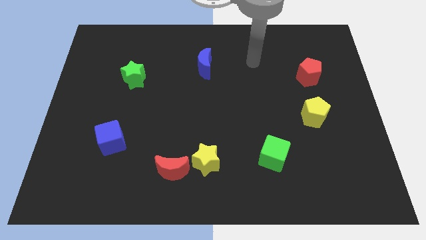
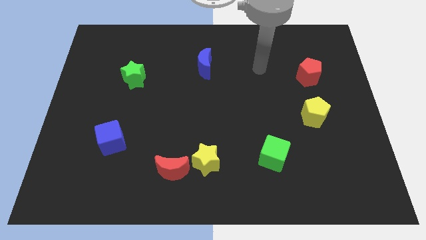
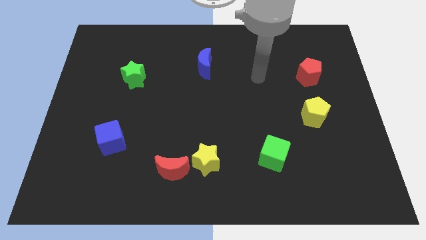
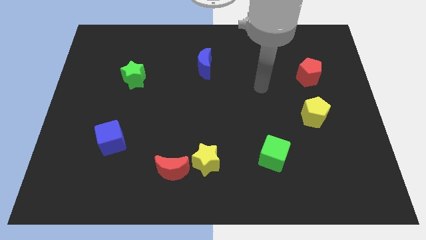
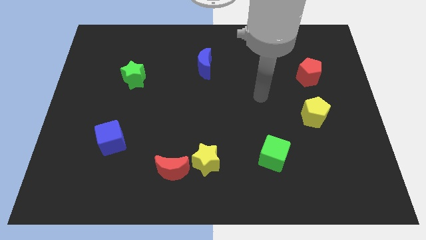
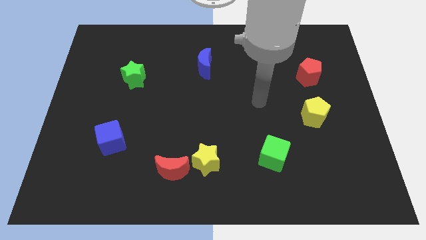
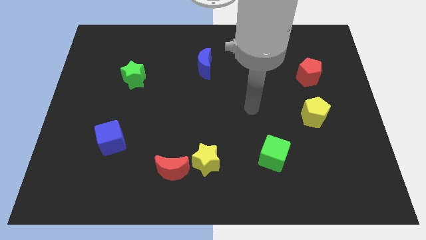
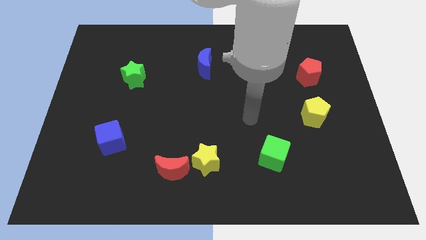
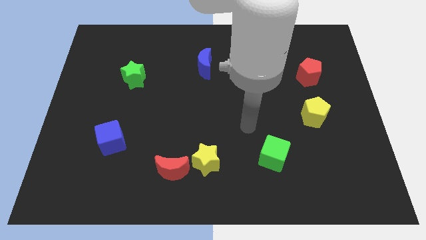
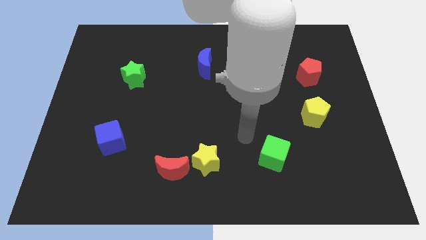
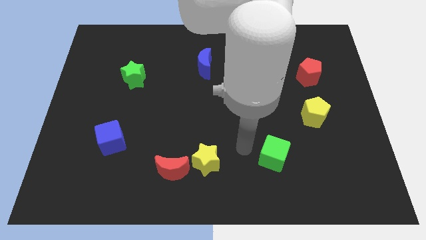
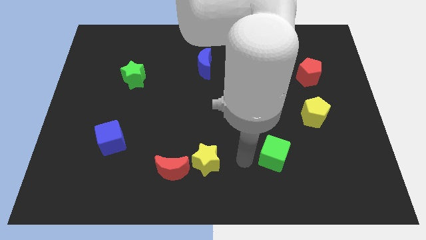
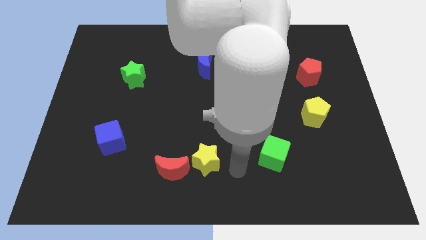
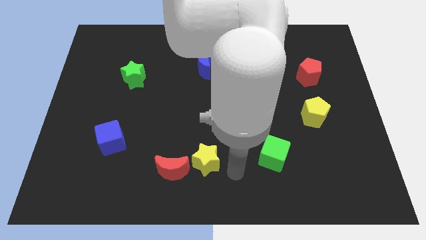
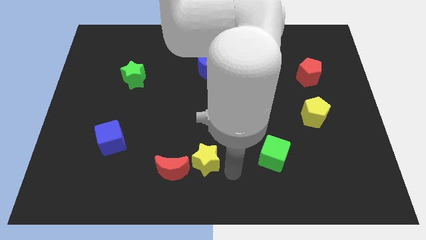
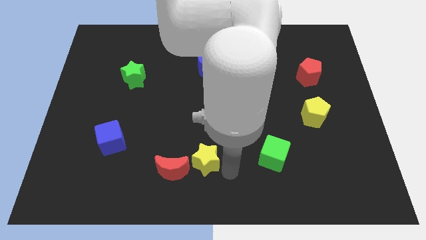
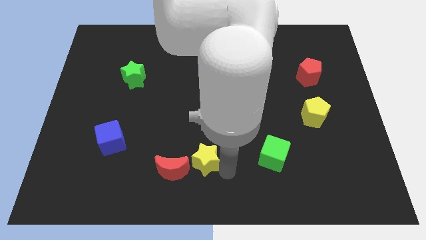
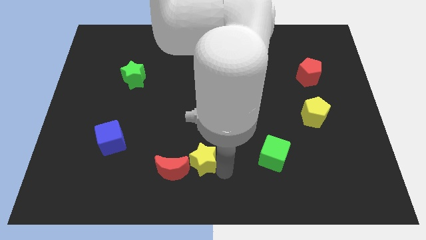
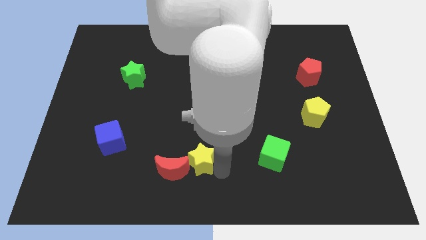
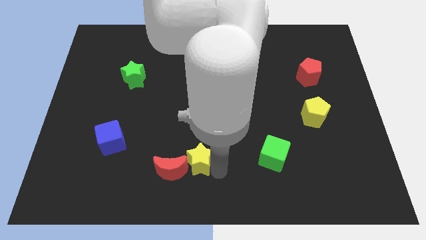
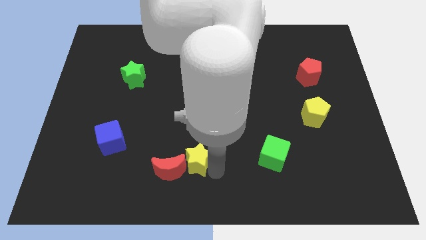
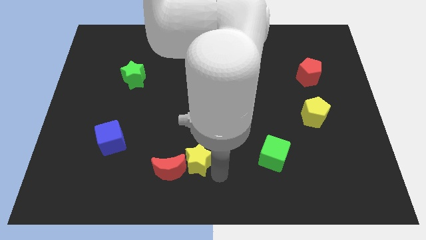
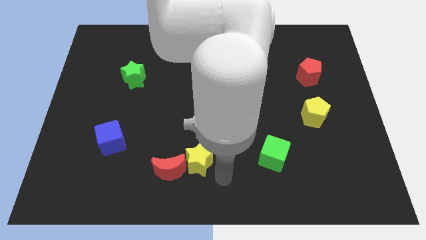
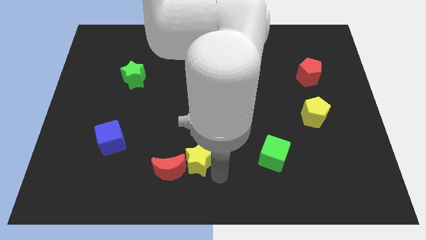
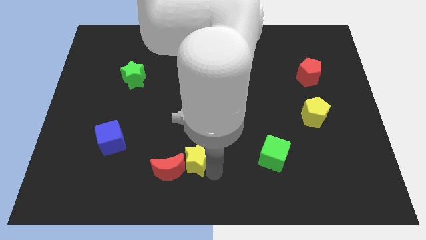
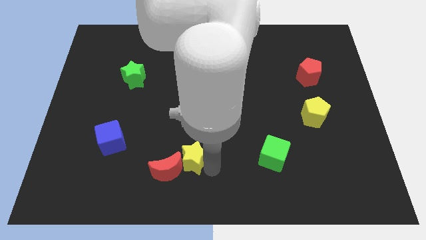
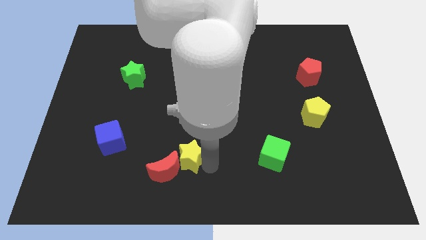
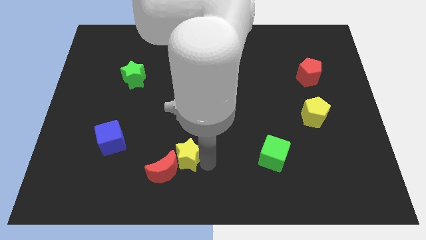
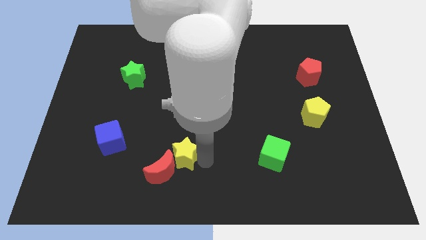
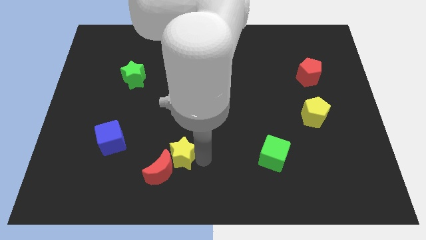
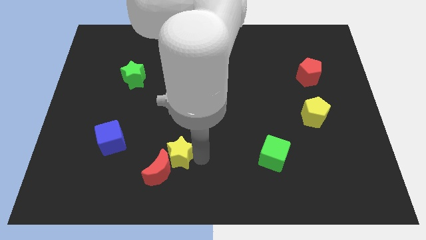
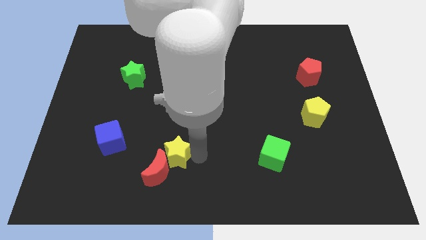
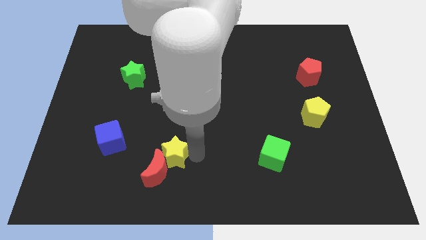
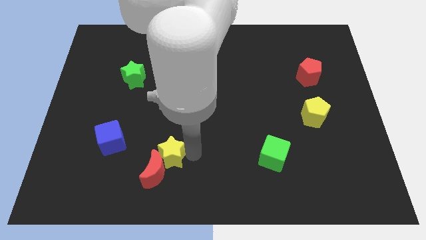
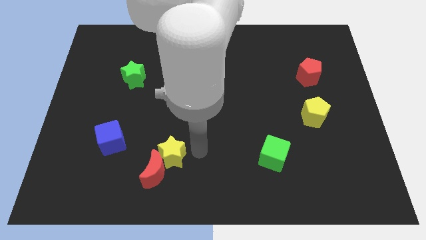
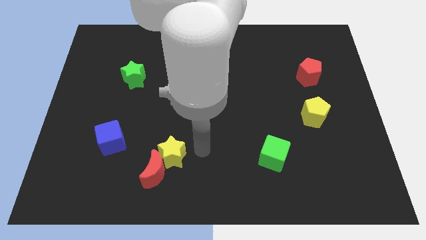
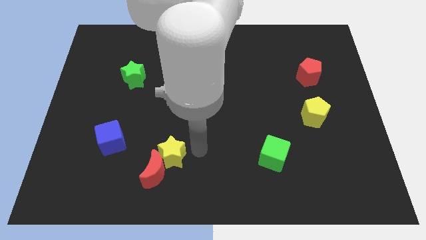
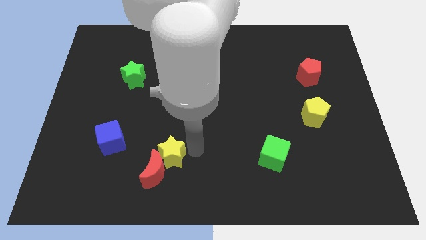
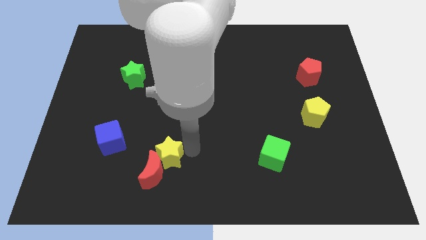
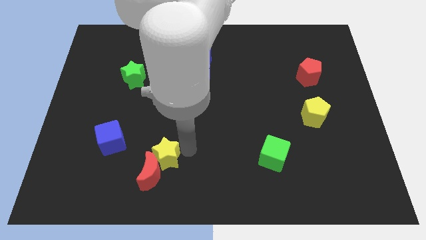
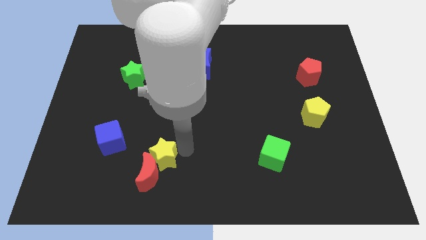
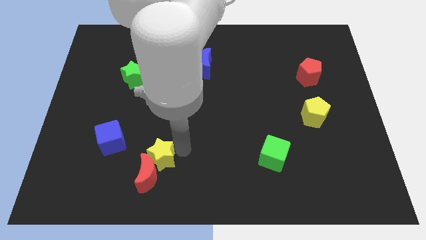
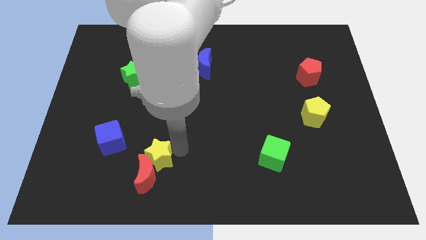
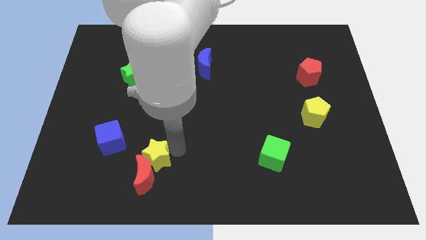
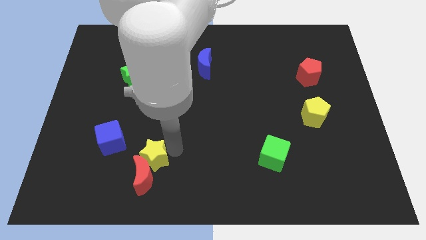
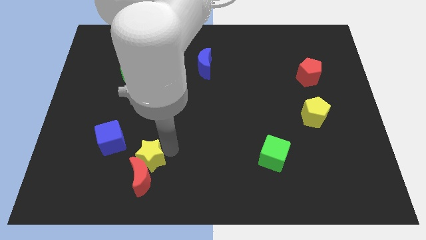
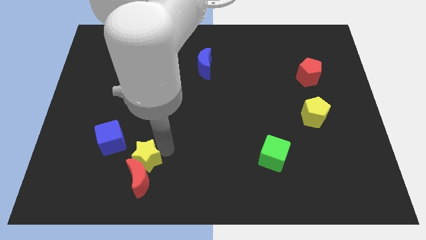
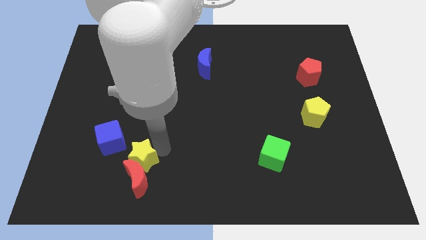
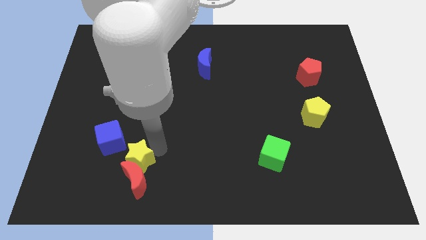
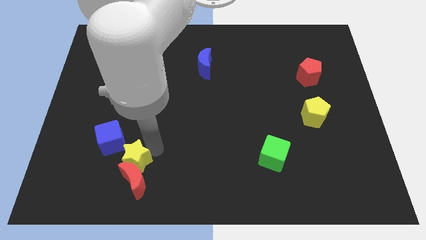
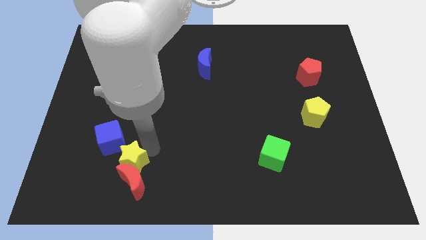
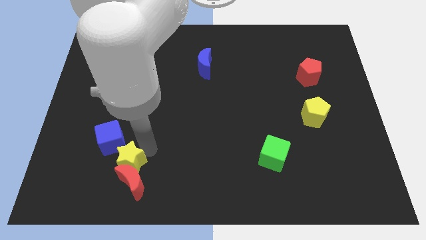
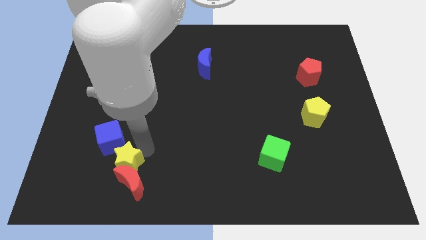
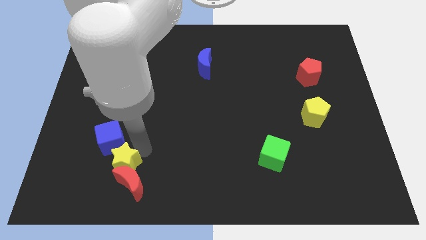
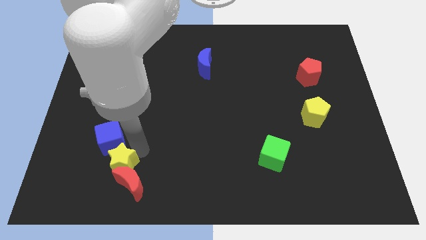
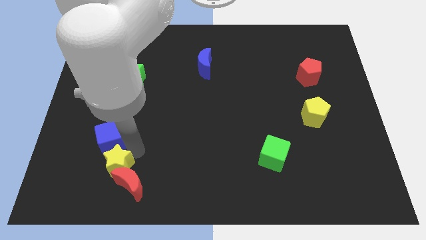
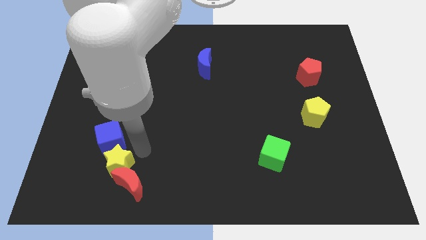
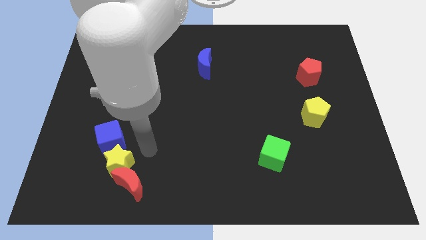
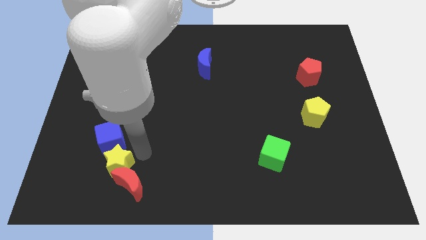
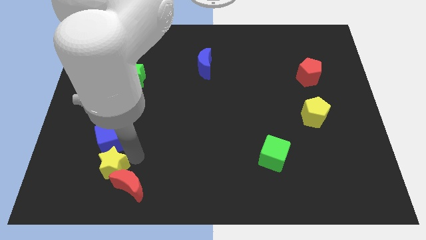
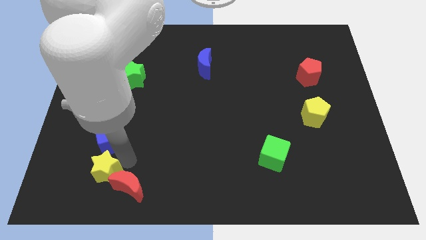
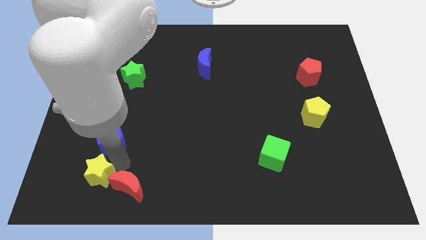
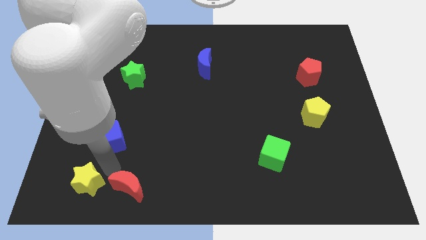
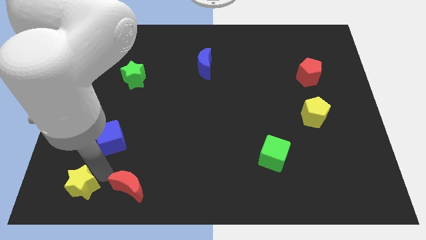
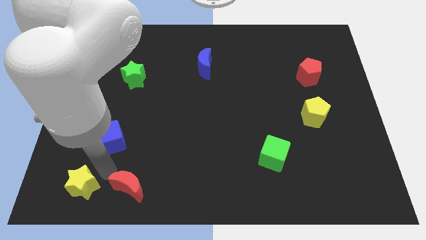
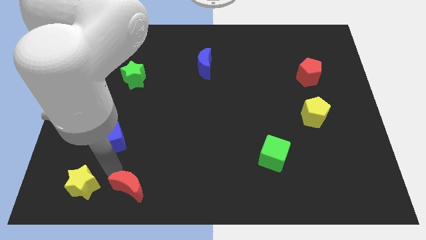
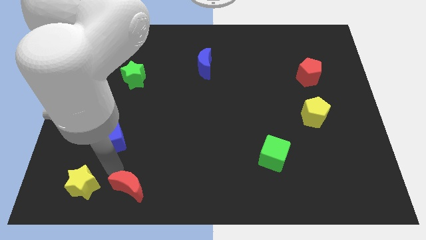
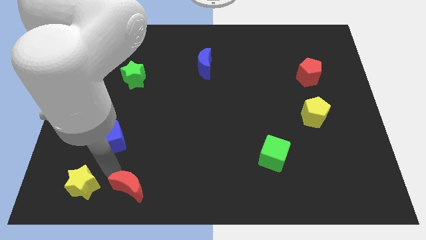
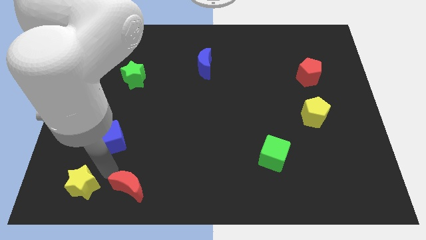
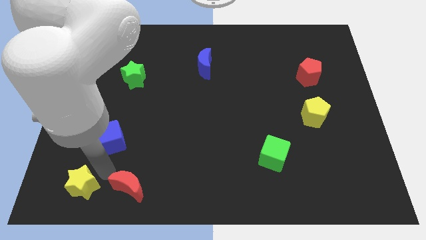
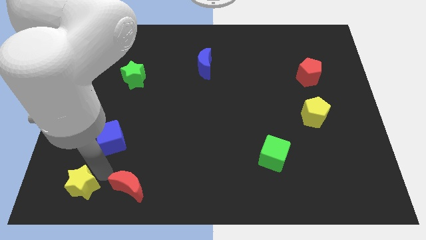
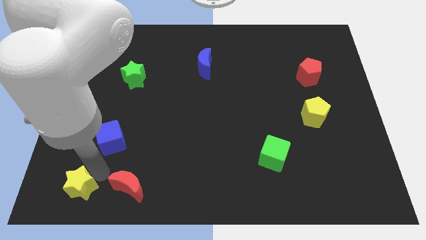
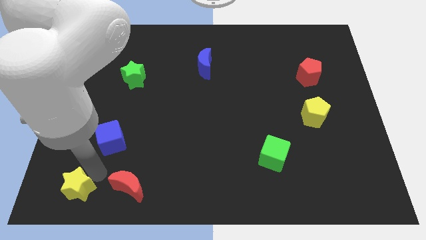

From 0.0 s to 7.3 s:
push the yellow star to the lower left corner
